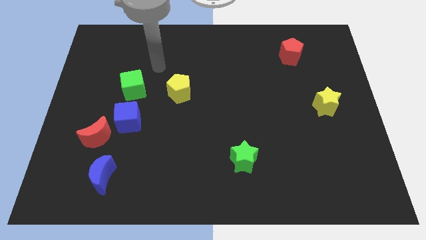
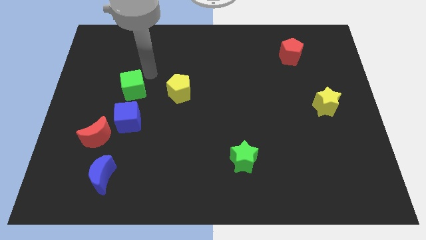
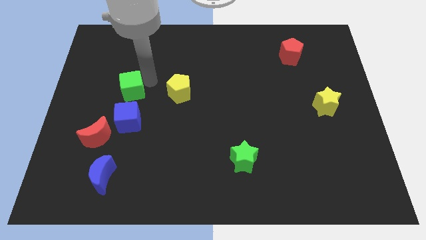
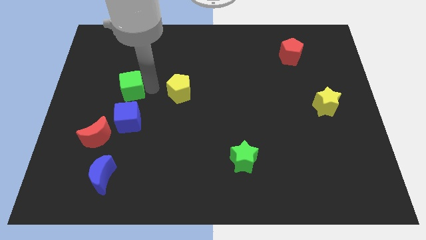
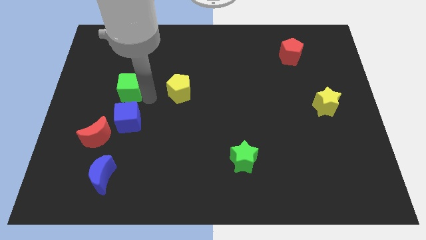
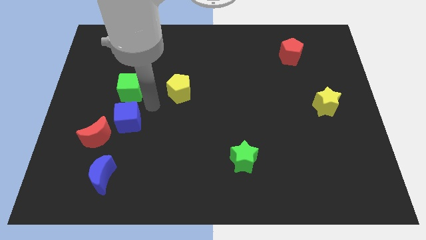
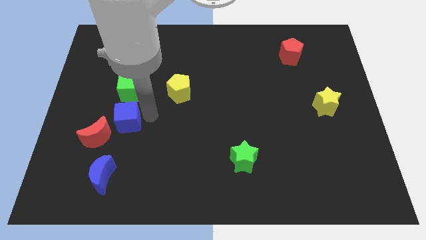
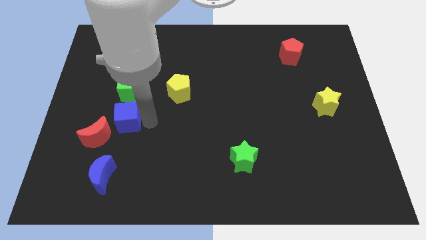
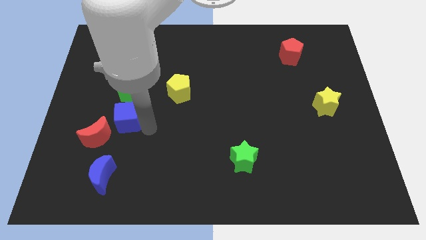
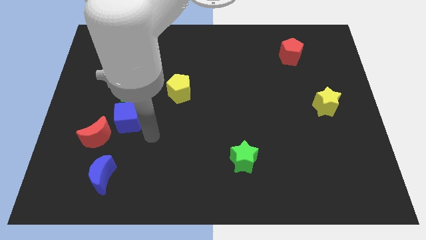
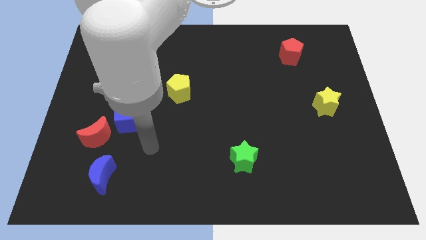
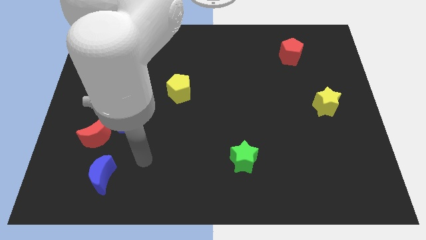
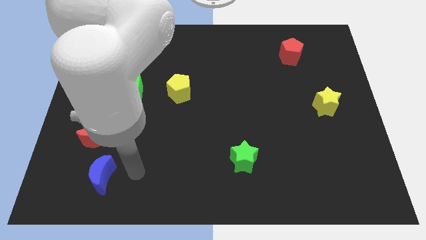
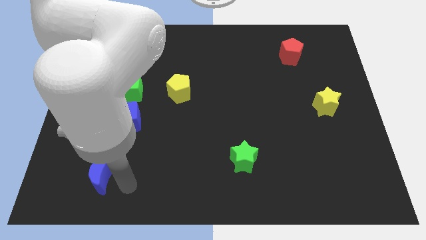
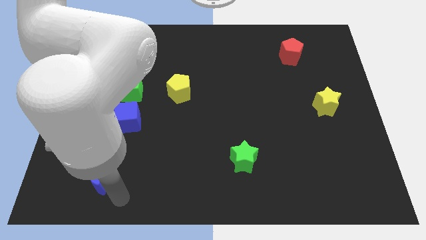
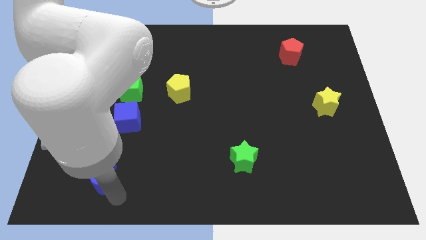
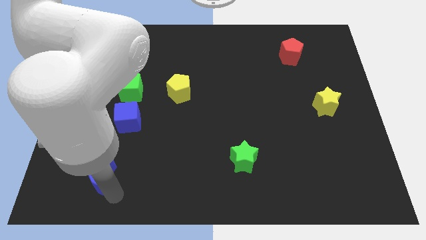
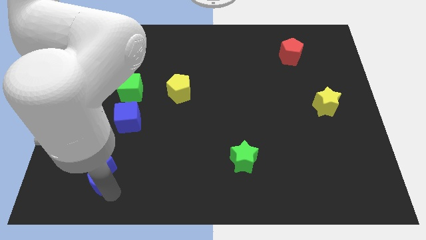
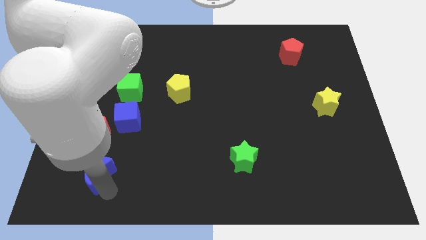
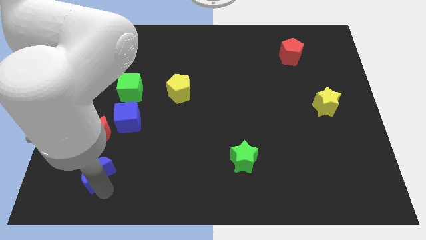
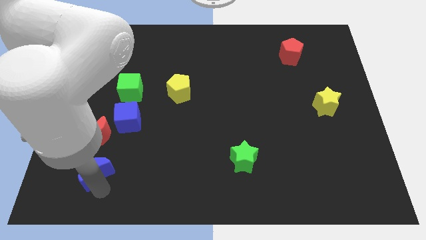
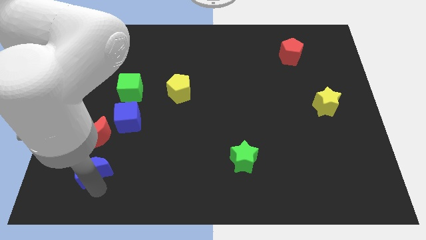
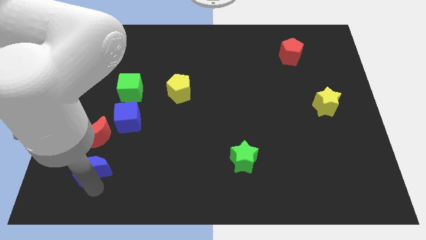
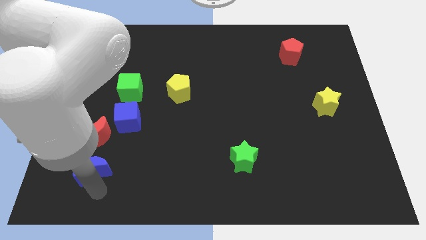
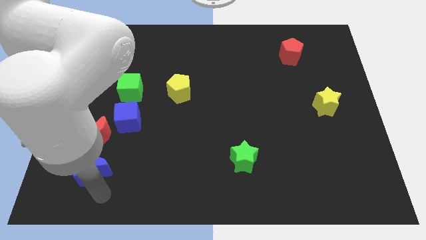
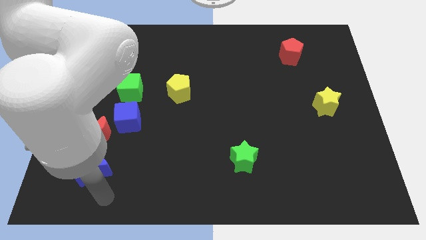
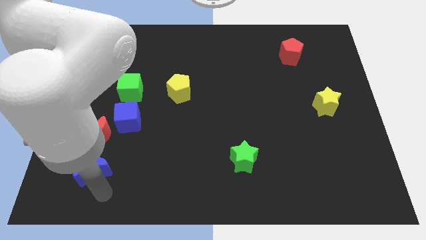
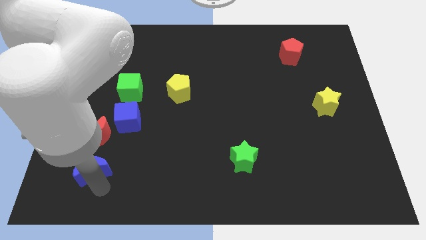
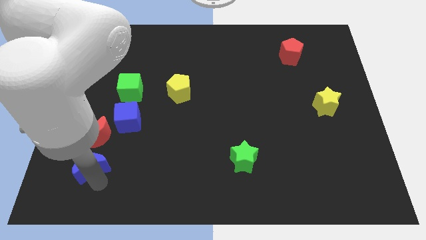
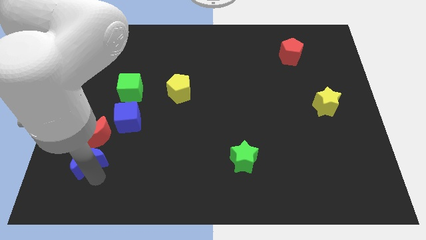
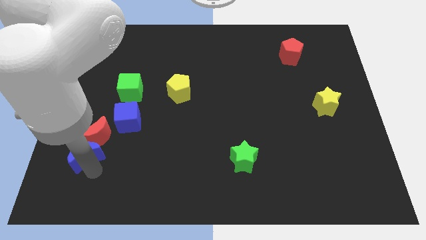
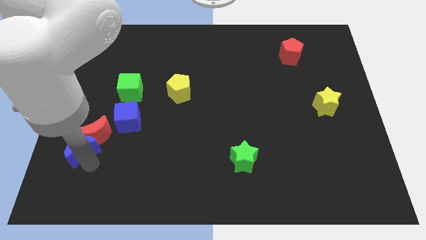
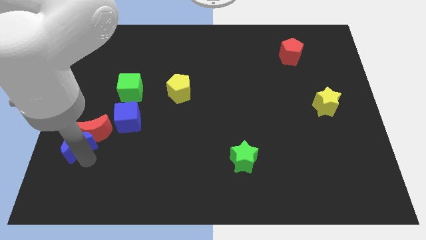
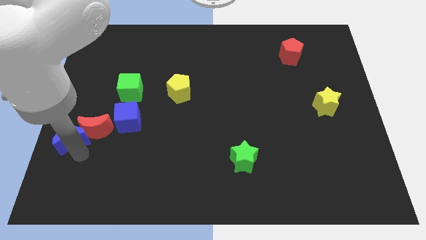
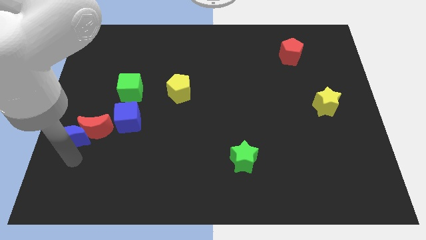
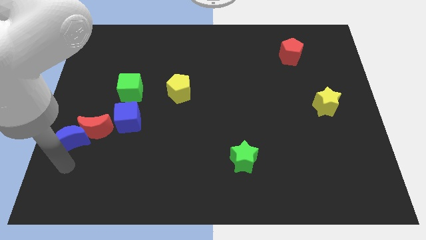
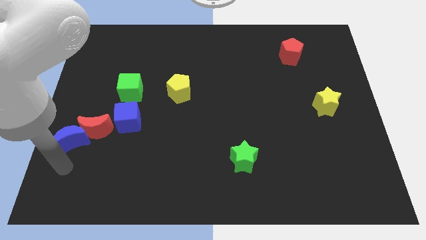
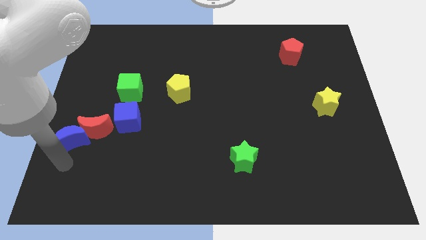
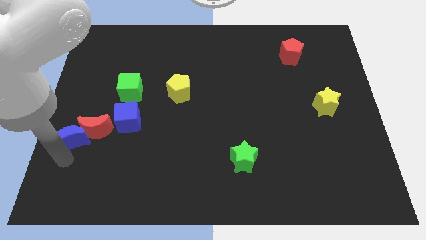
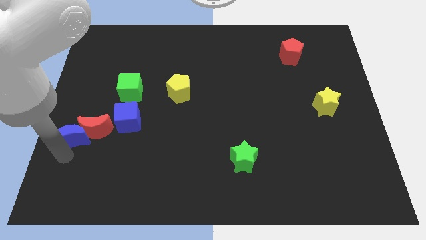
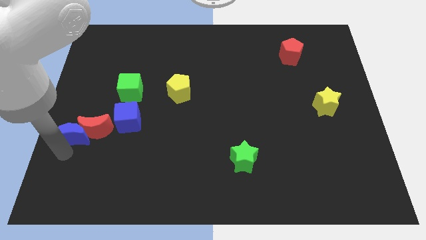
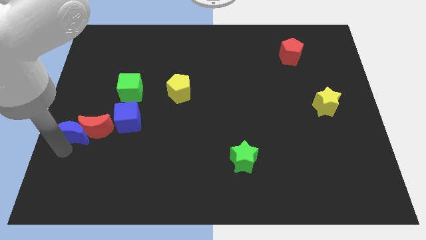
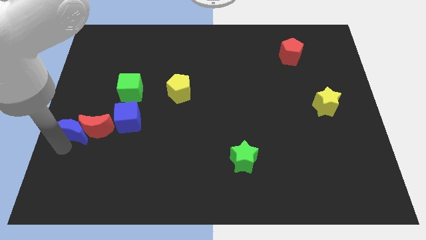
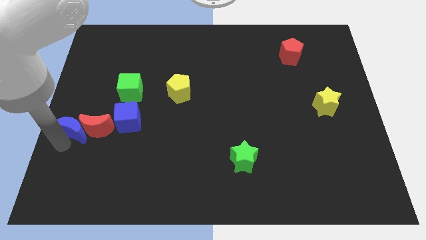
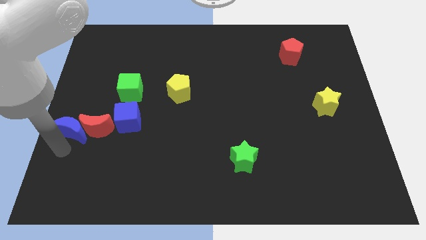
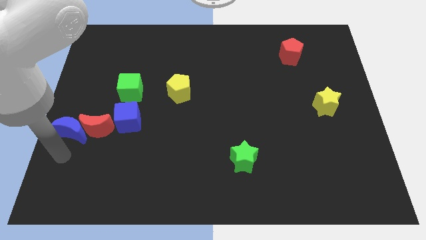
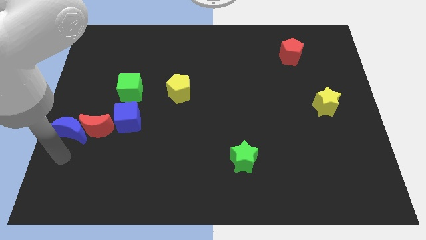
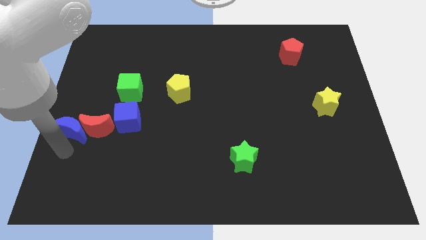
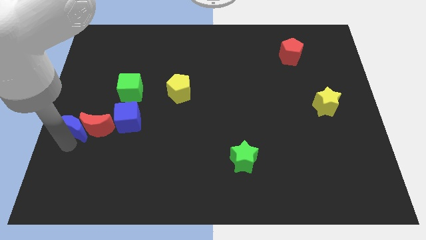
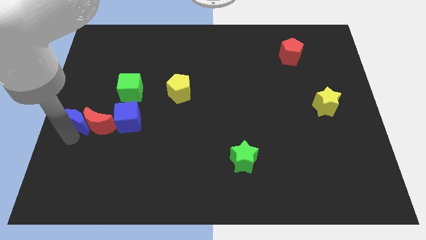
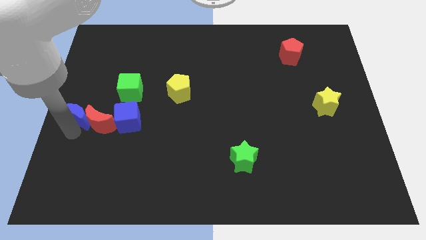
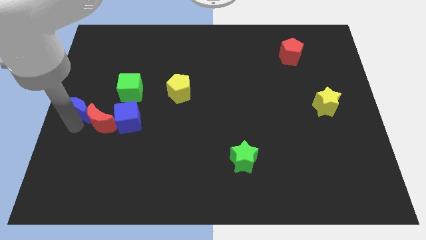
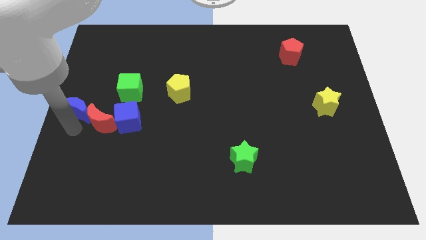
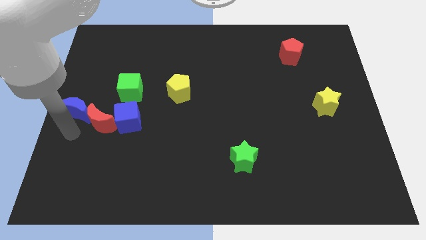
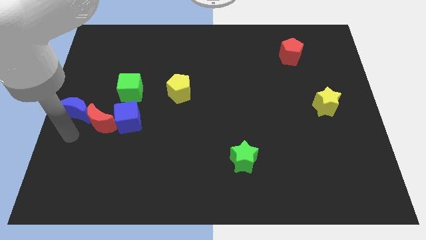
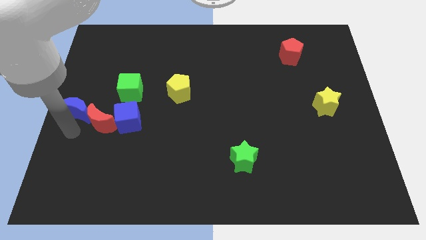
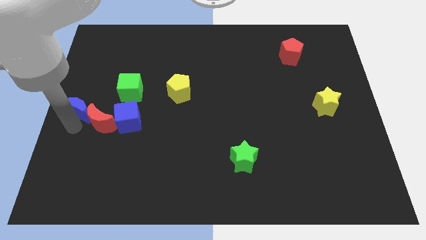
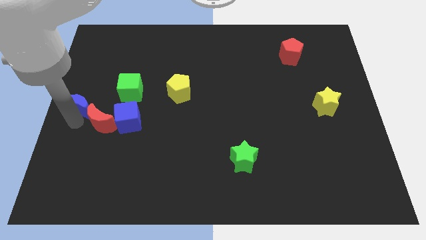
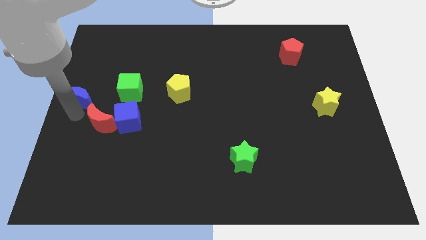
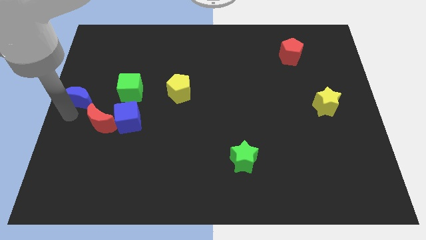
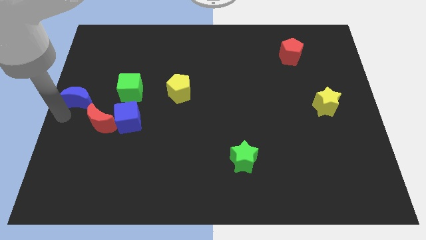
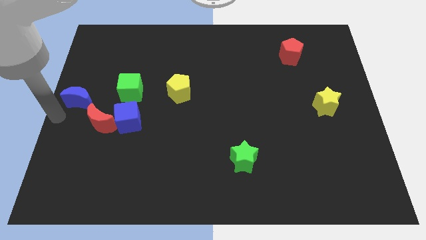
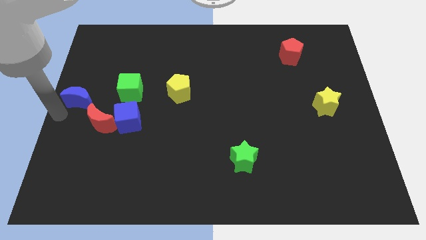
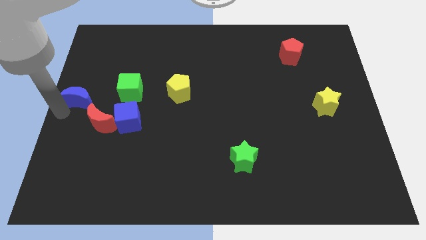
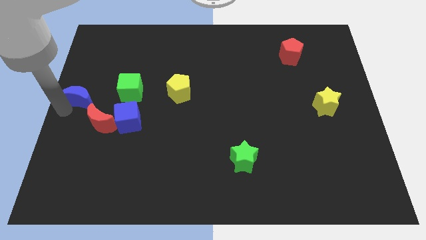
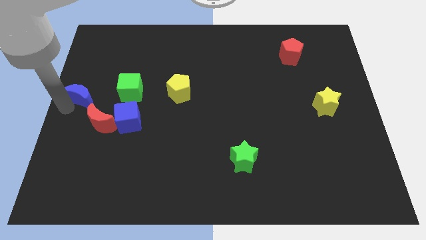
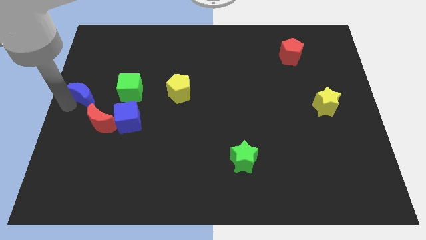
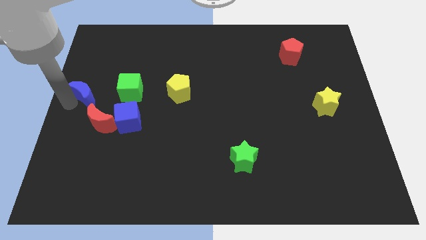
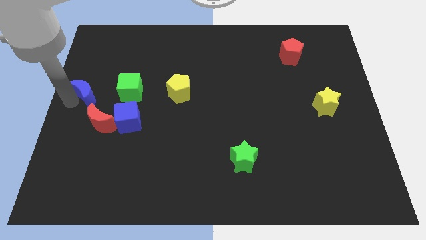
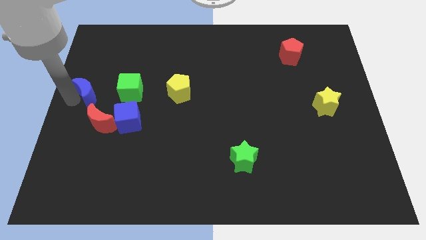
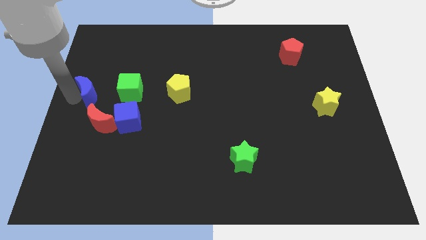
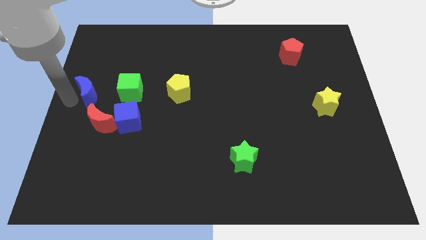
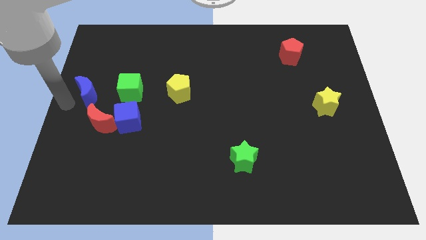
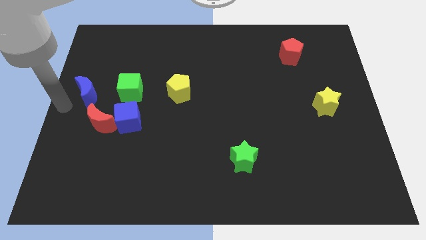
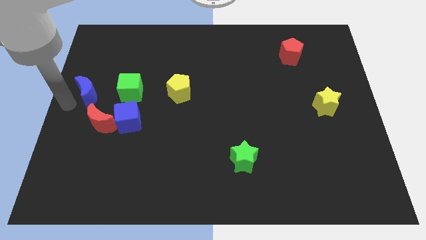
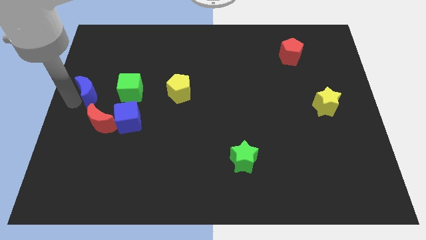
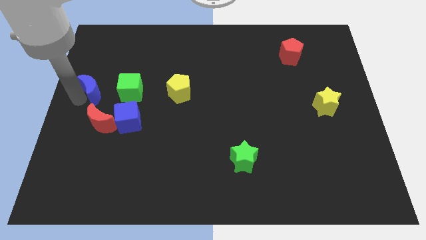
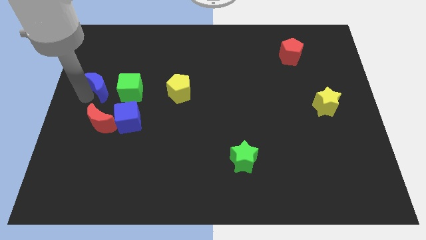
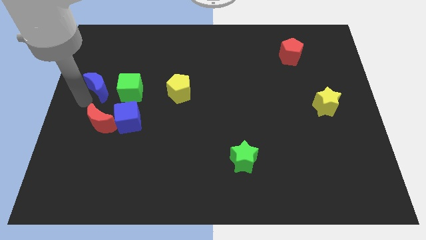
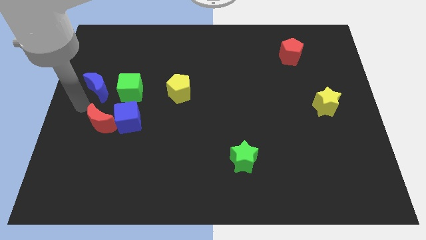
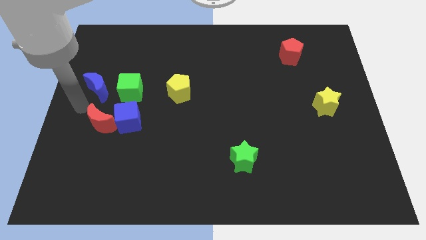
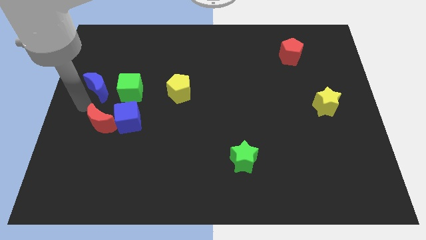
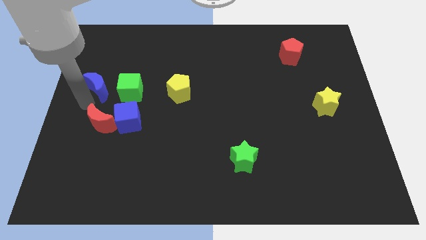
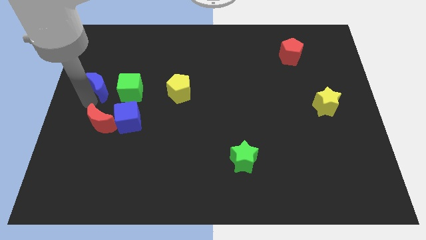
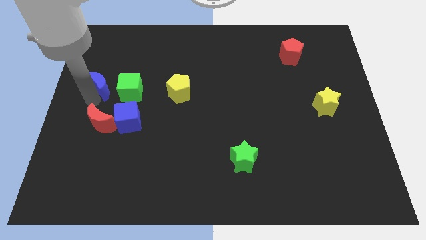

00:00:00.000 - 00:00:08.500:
slide the blue moon to the top left of the green cube
